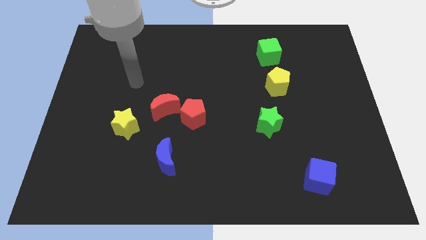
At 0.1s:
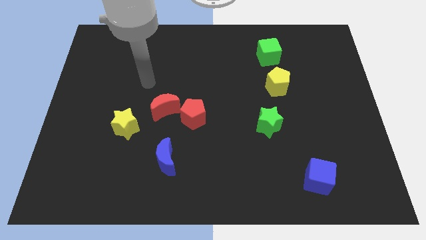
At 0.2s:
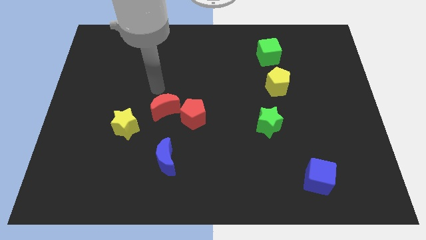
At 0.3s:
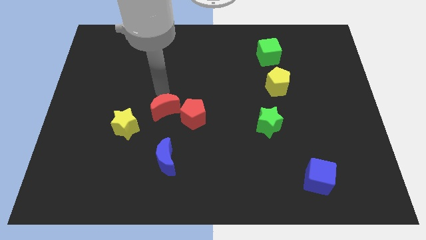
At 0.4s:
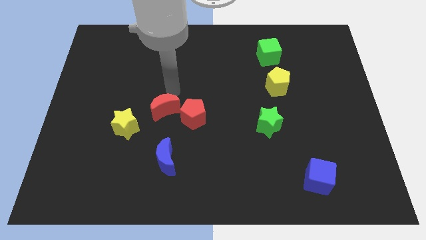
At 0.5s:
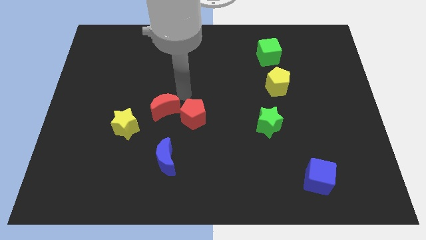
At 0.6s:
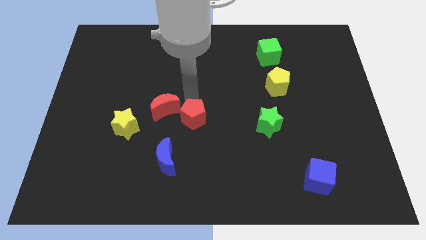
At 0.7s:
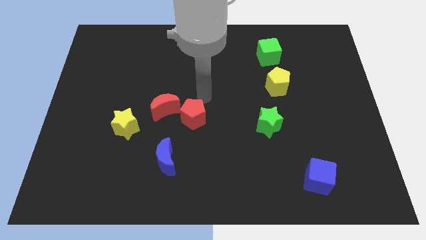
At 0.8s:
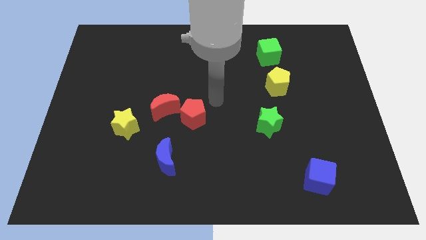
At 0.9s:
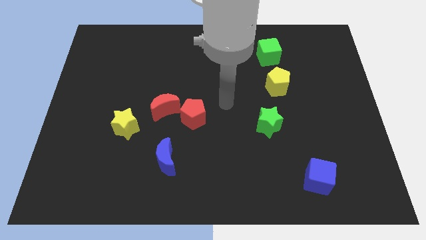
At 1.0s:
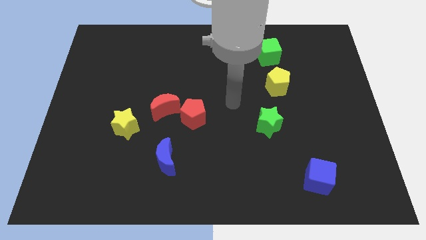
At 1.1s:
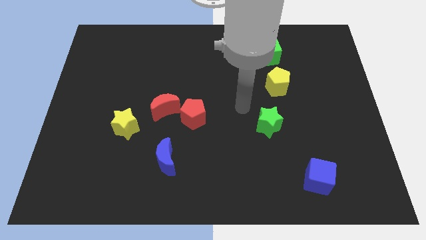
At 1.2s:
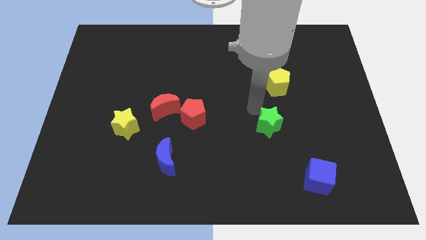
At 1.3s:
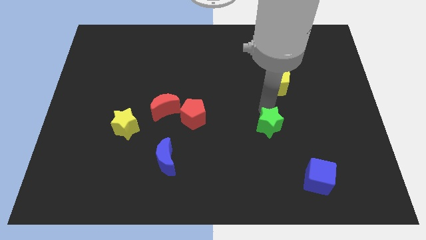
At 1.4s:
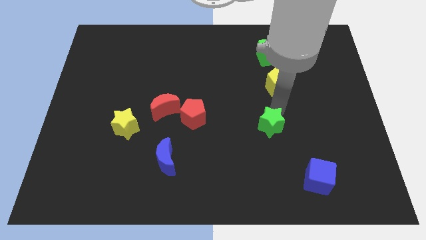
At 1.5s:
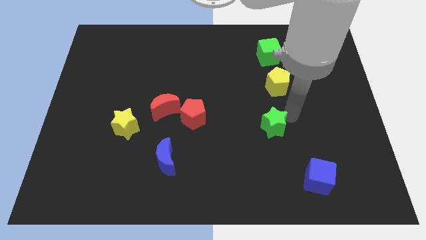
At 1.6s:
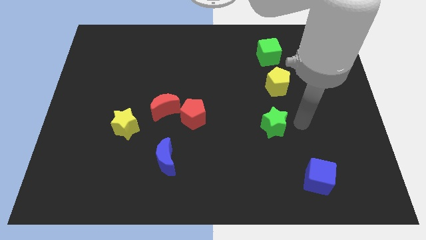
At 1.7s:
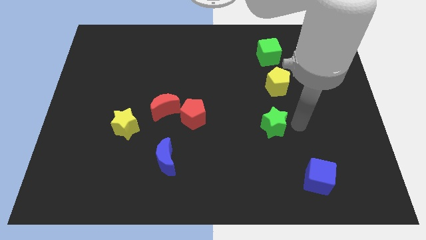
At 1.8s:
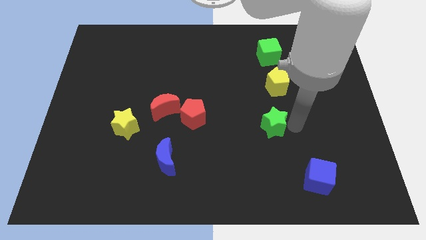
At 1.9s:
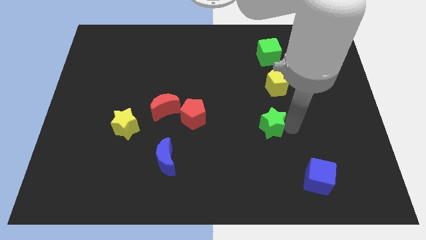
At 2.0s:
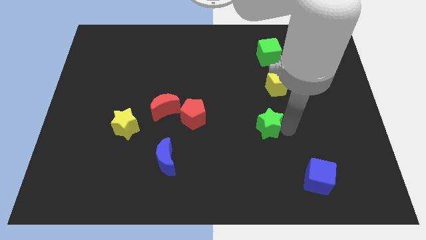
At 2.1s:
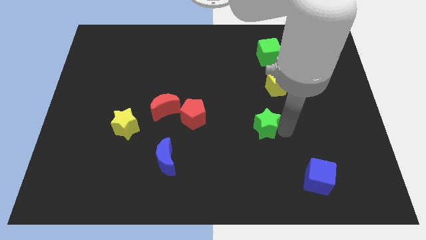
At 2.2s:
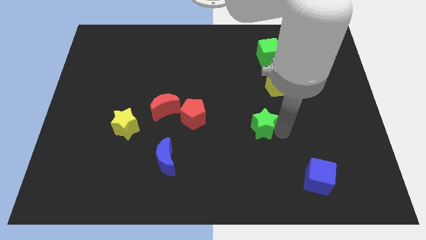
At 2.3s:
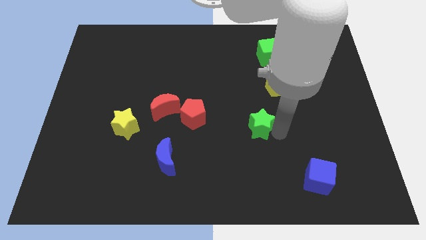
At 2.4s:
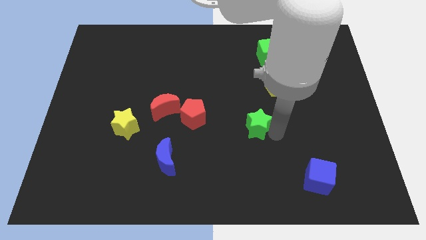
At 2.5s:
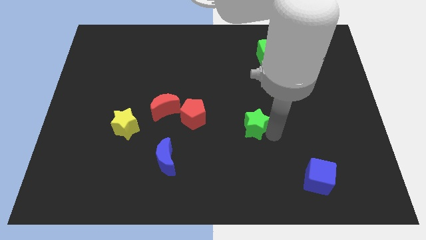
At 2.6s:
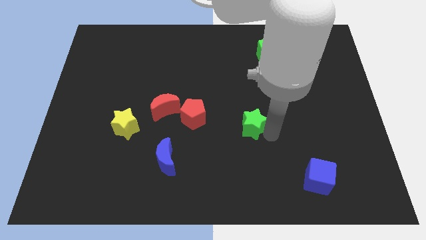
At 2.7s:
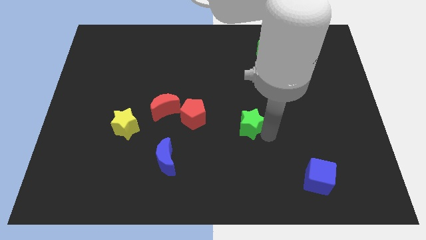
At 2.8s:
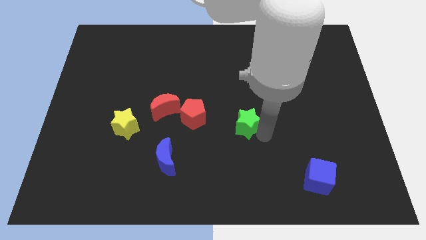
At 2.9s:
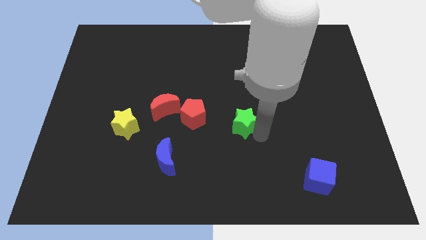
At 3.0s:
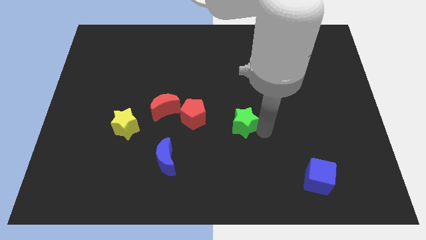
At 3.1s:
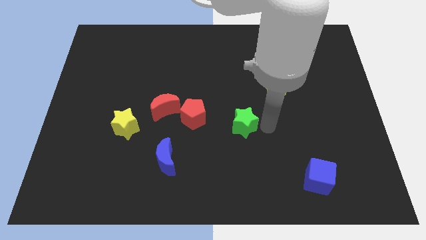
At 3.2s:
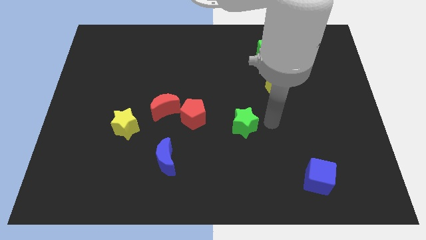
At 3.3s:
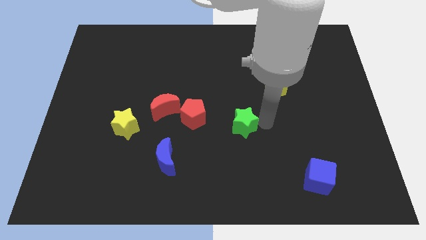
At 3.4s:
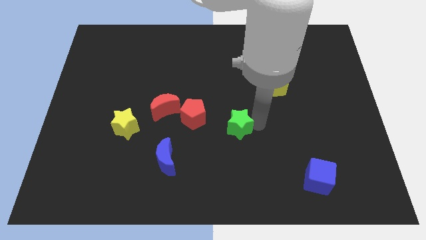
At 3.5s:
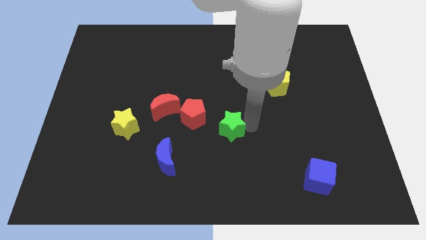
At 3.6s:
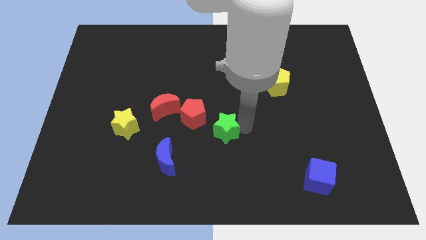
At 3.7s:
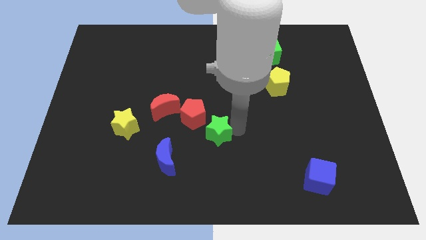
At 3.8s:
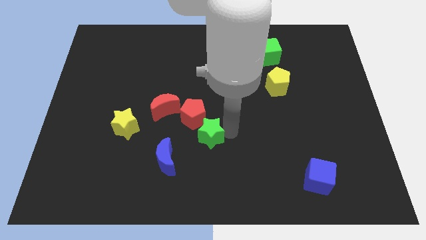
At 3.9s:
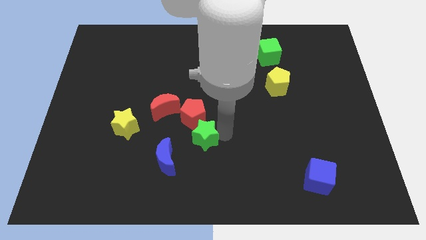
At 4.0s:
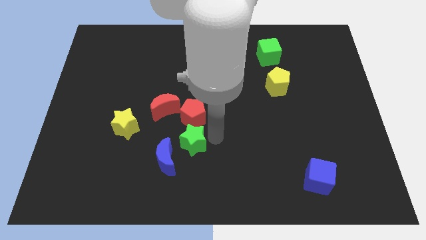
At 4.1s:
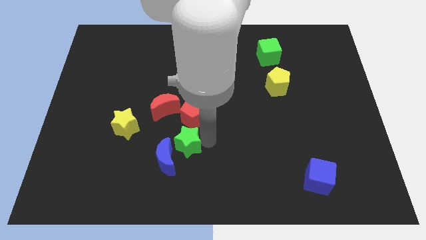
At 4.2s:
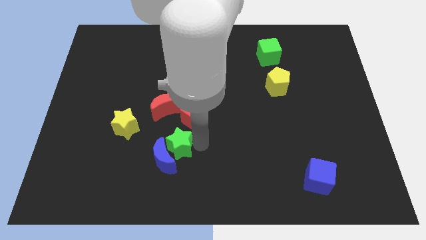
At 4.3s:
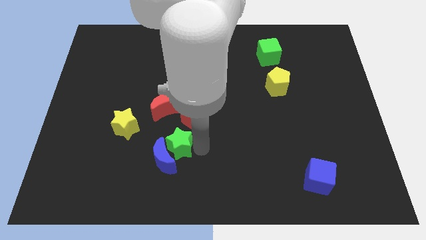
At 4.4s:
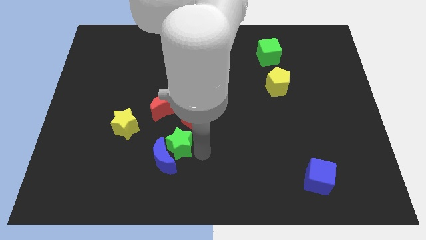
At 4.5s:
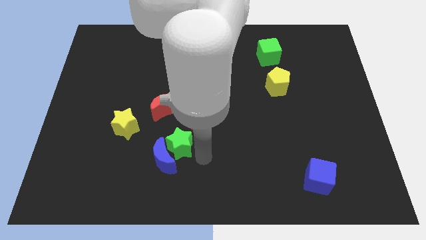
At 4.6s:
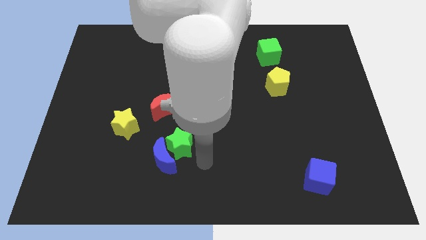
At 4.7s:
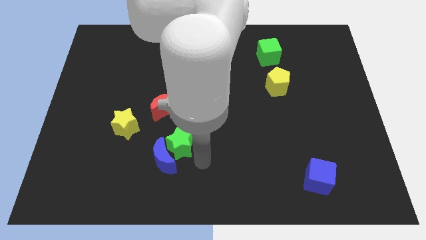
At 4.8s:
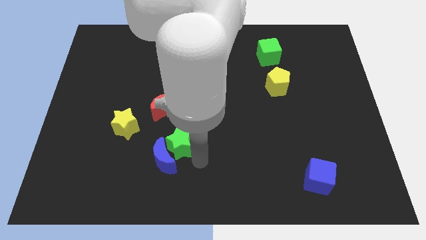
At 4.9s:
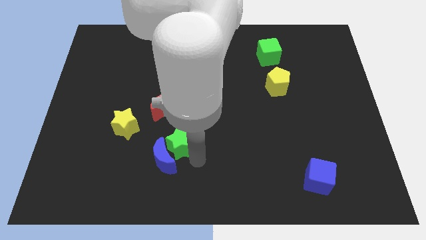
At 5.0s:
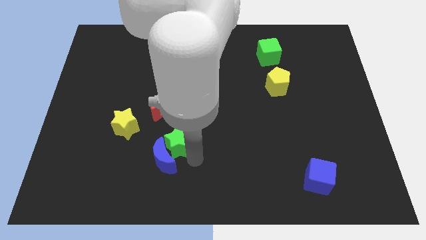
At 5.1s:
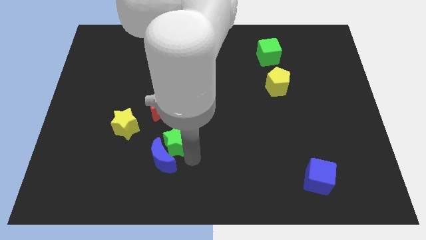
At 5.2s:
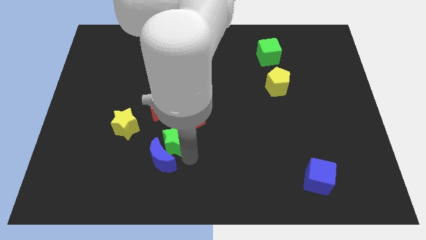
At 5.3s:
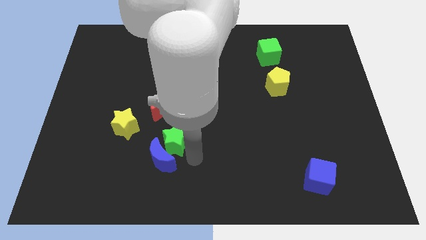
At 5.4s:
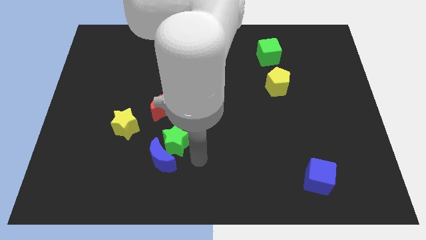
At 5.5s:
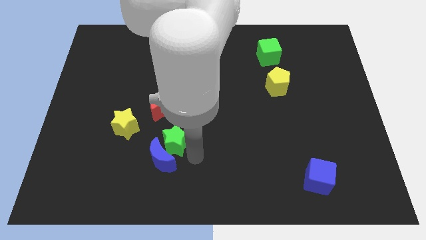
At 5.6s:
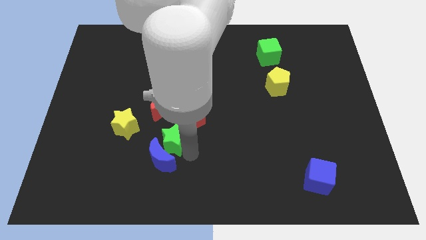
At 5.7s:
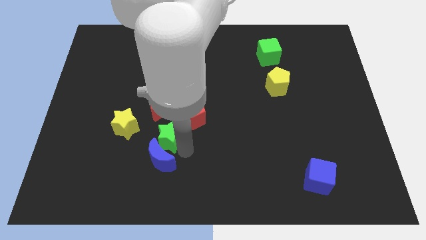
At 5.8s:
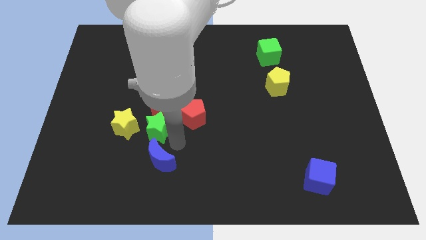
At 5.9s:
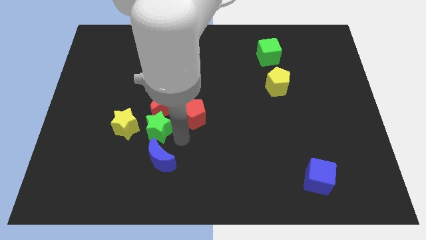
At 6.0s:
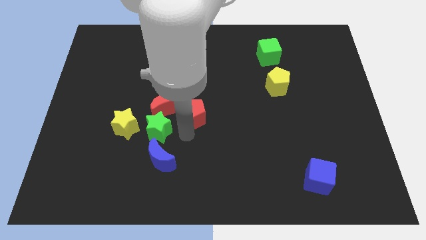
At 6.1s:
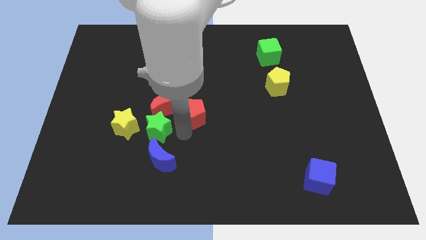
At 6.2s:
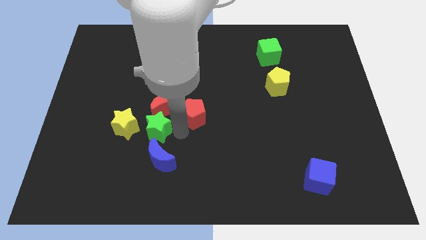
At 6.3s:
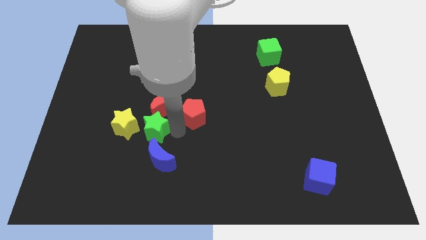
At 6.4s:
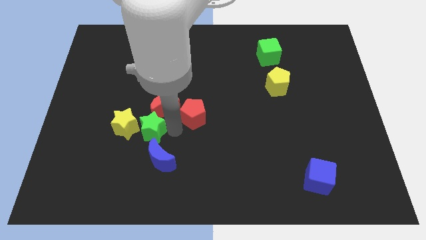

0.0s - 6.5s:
put the green star to the yellow star
